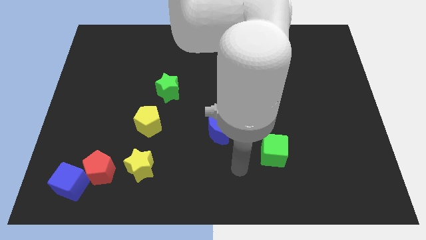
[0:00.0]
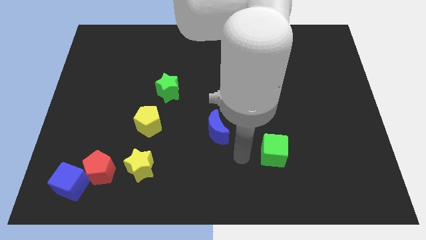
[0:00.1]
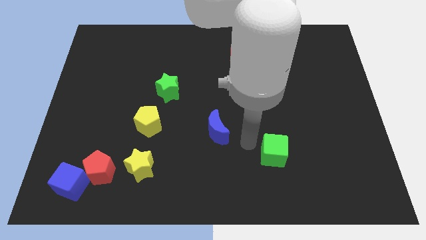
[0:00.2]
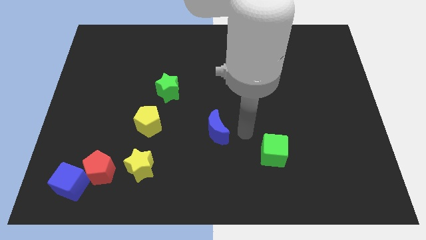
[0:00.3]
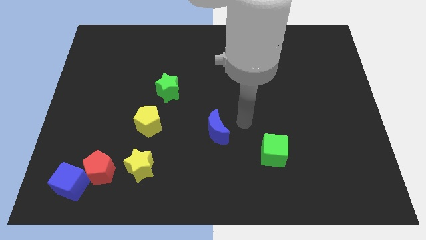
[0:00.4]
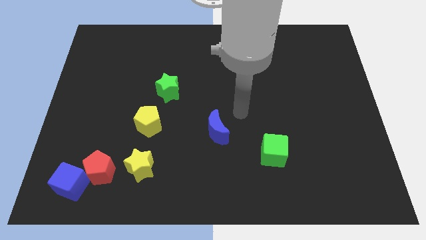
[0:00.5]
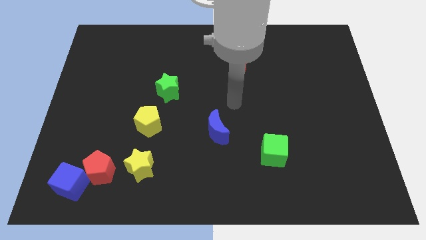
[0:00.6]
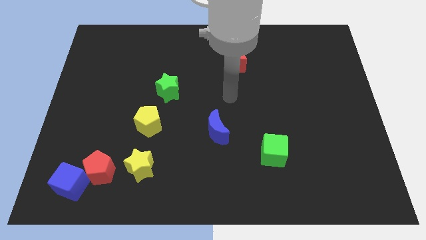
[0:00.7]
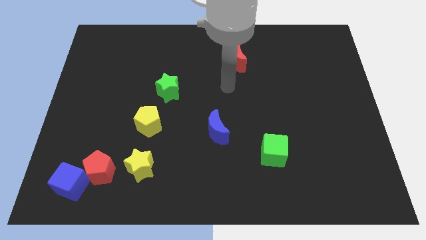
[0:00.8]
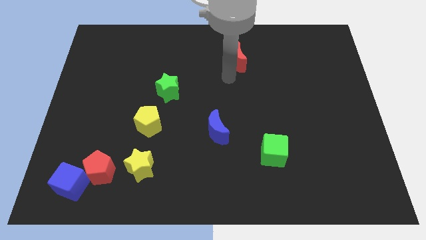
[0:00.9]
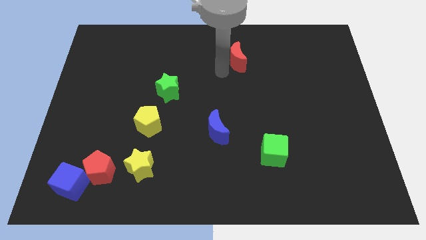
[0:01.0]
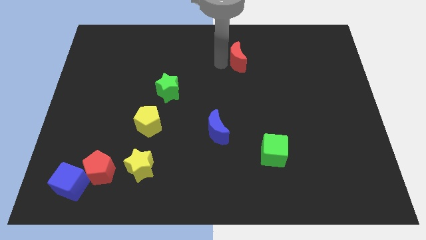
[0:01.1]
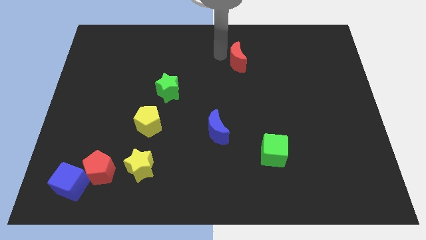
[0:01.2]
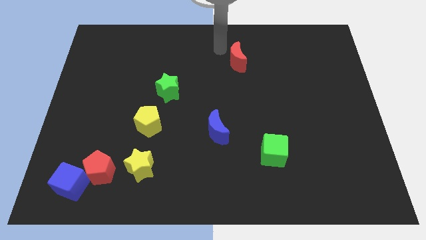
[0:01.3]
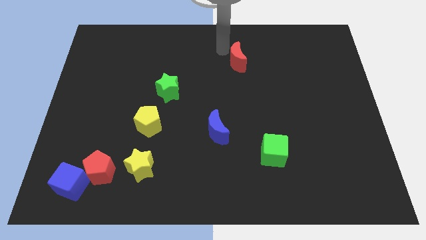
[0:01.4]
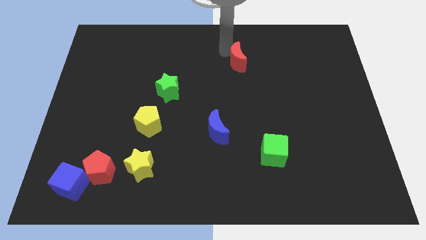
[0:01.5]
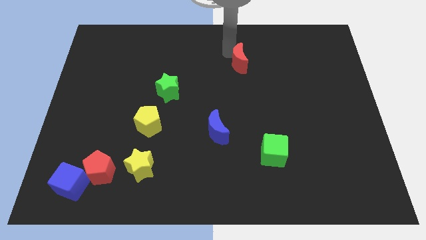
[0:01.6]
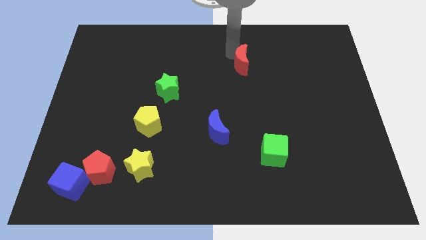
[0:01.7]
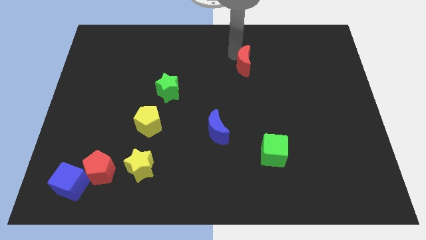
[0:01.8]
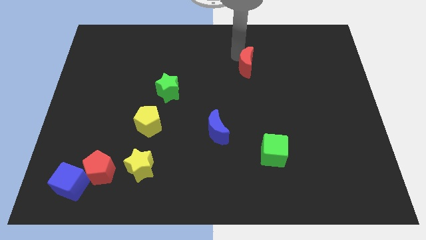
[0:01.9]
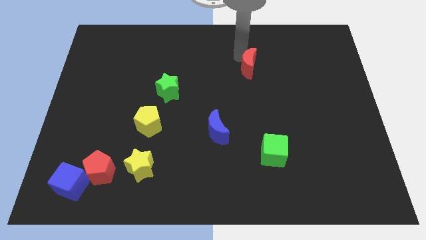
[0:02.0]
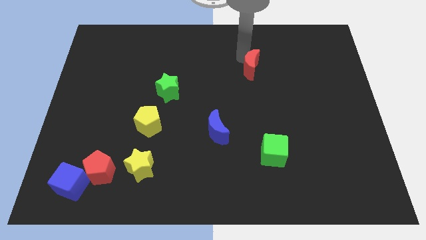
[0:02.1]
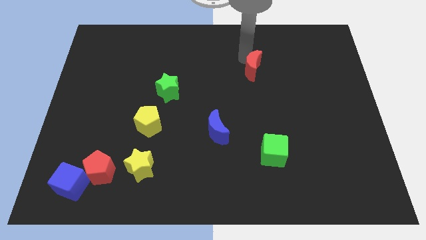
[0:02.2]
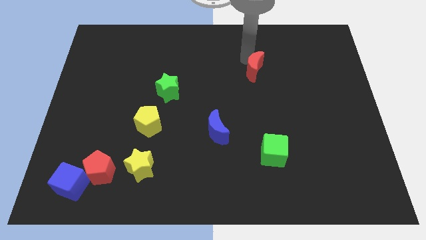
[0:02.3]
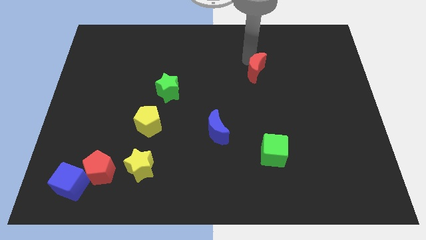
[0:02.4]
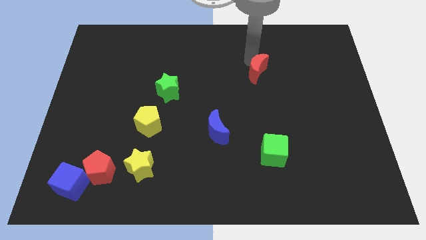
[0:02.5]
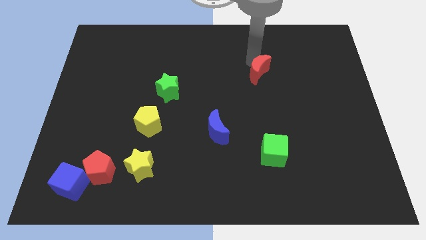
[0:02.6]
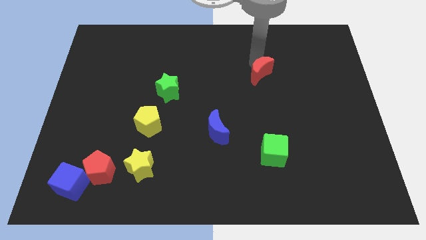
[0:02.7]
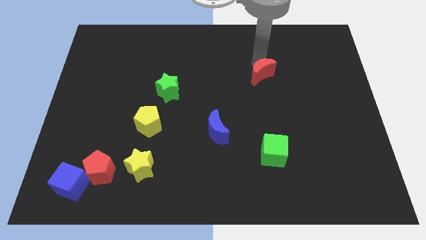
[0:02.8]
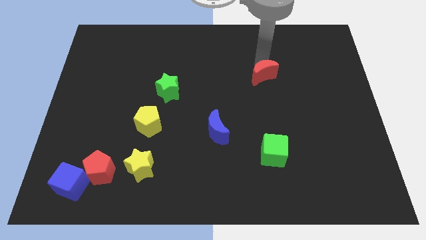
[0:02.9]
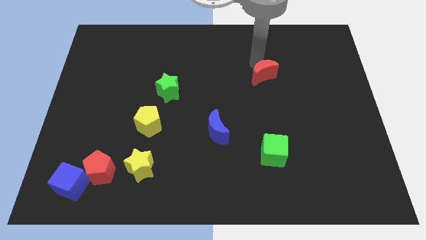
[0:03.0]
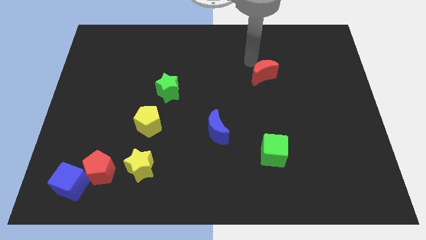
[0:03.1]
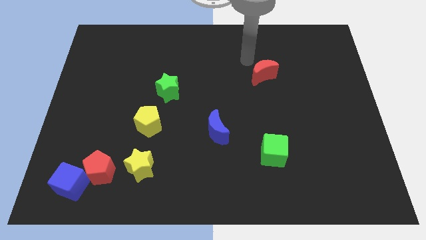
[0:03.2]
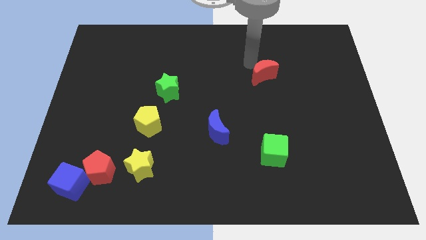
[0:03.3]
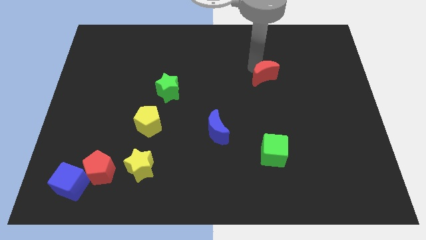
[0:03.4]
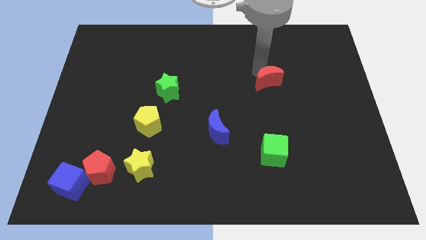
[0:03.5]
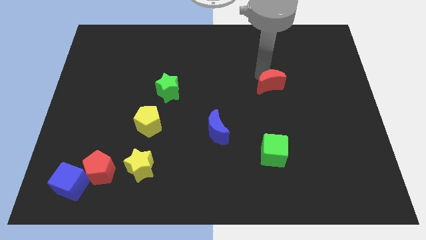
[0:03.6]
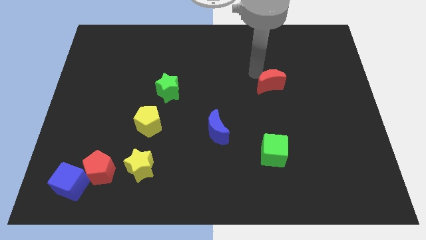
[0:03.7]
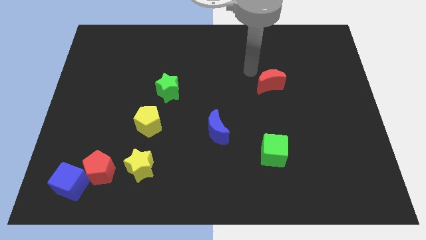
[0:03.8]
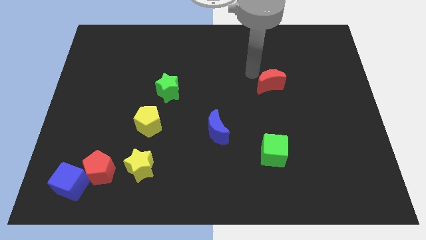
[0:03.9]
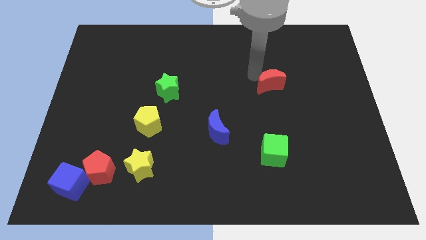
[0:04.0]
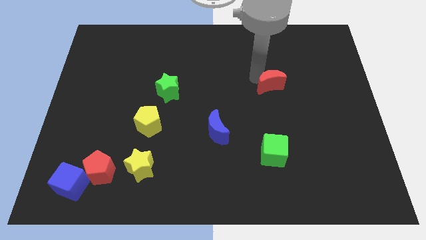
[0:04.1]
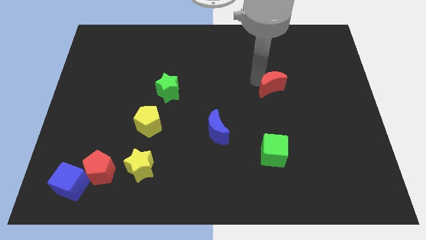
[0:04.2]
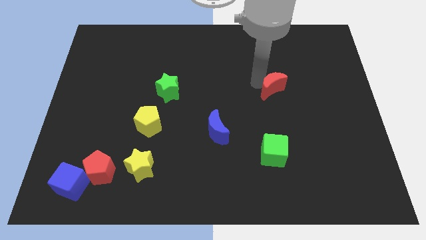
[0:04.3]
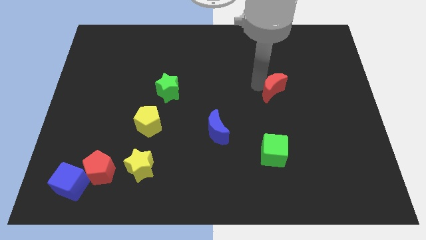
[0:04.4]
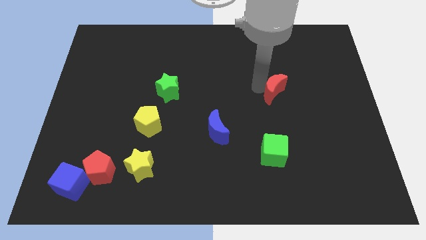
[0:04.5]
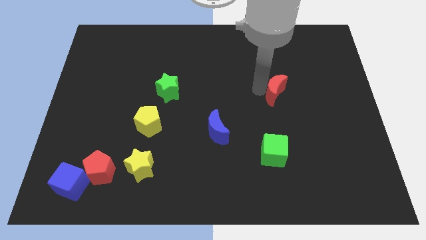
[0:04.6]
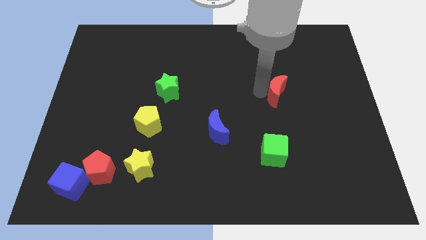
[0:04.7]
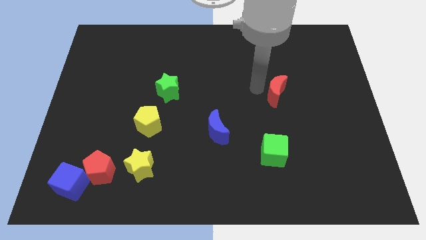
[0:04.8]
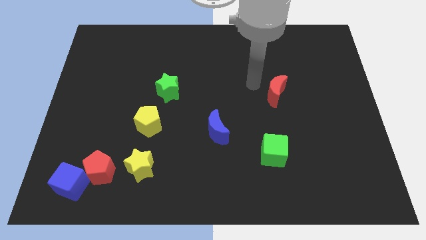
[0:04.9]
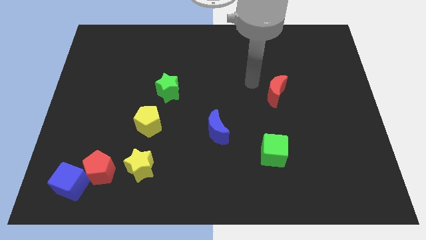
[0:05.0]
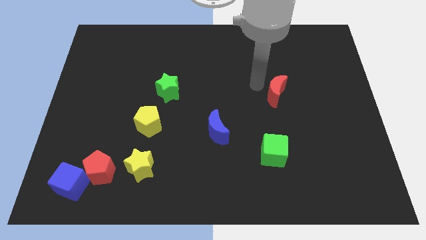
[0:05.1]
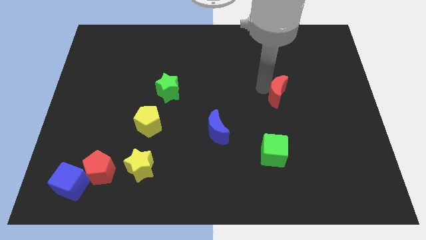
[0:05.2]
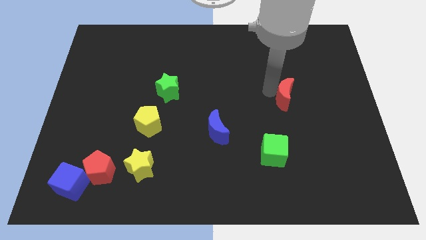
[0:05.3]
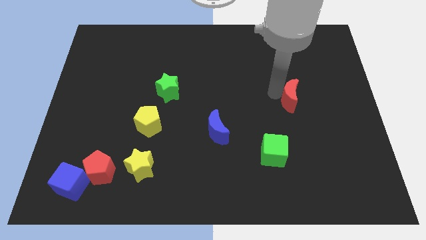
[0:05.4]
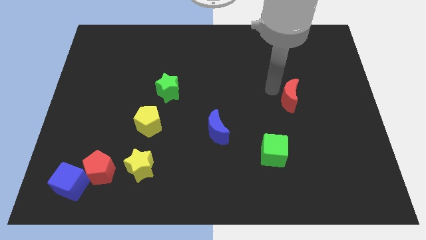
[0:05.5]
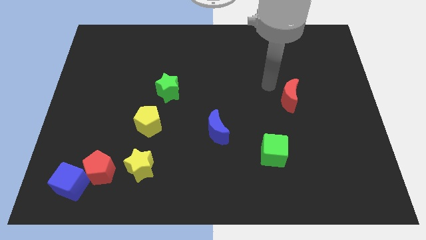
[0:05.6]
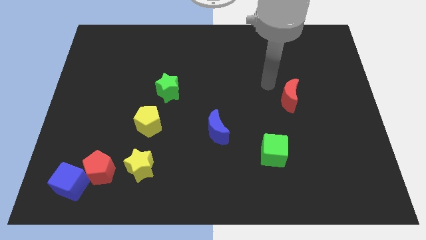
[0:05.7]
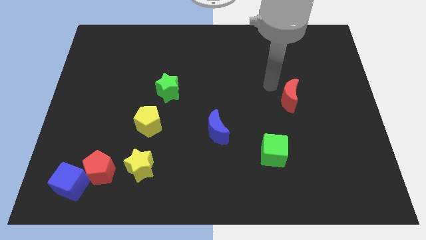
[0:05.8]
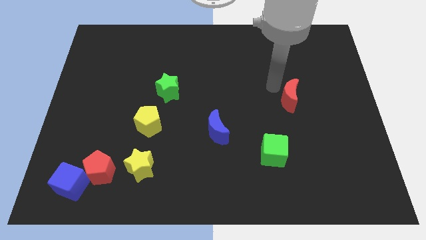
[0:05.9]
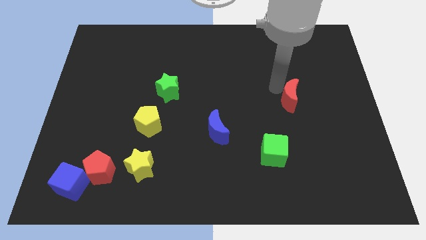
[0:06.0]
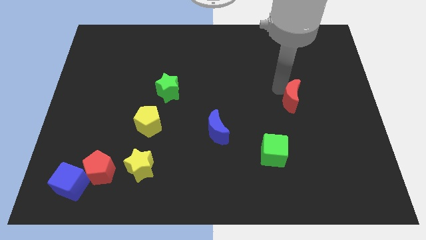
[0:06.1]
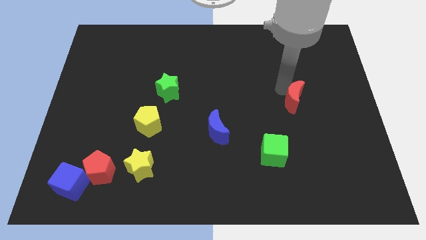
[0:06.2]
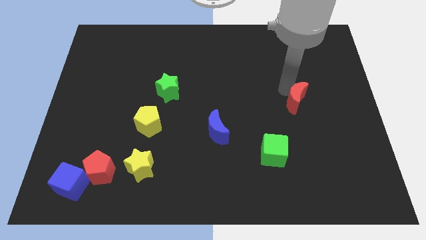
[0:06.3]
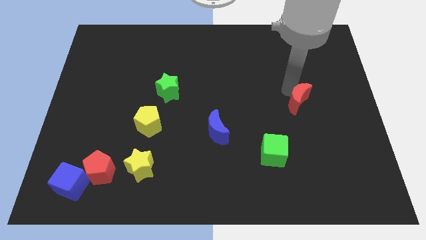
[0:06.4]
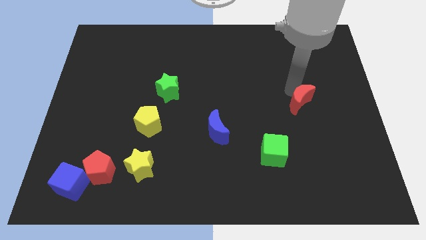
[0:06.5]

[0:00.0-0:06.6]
push the red moon down and to the right diagonally

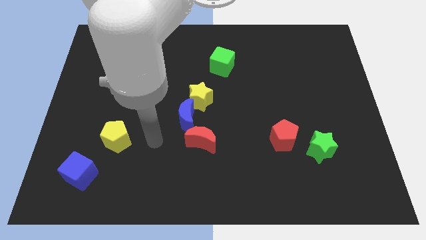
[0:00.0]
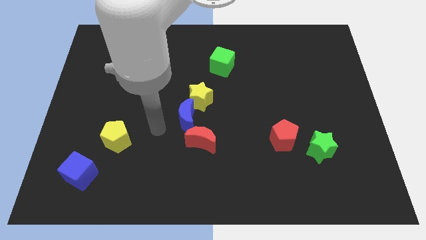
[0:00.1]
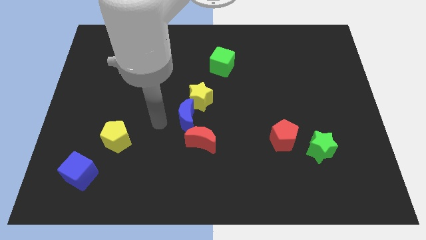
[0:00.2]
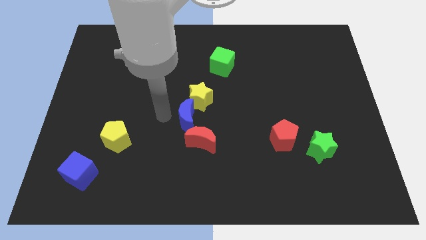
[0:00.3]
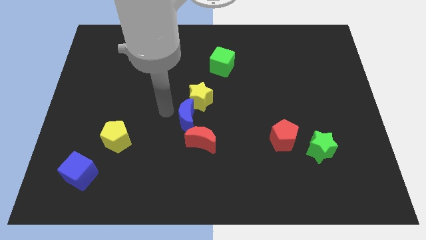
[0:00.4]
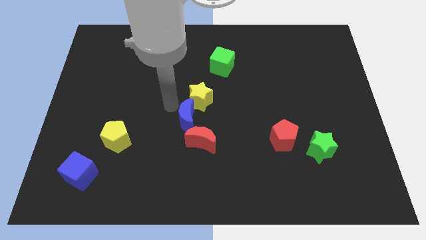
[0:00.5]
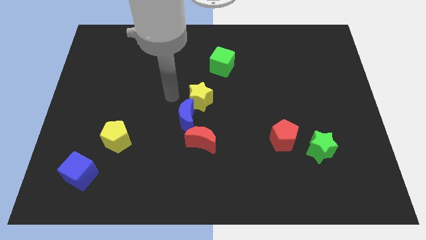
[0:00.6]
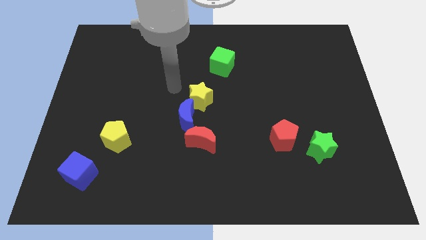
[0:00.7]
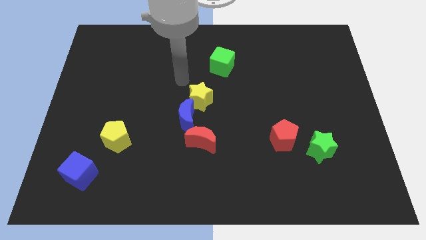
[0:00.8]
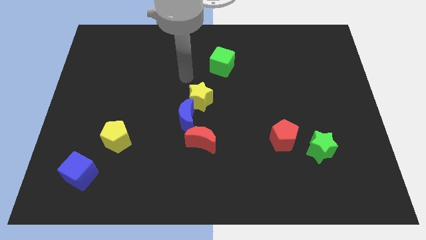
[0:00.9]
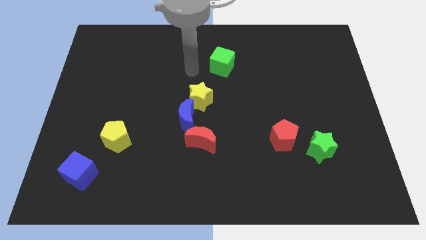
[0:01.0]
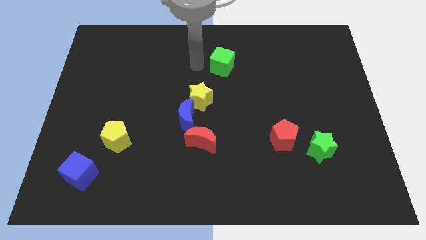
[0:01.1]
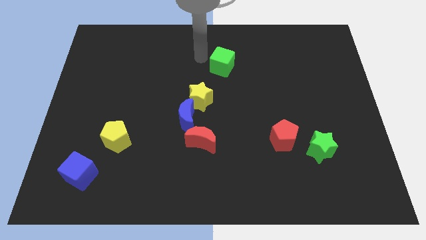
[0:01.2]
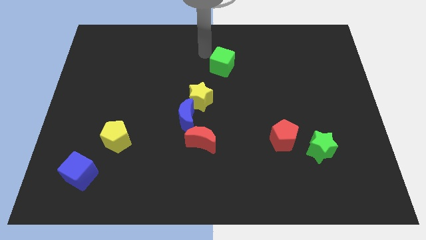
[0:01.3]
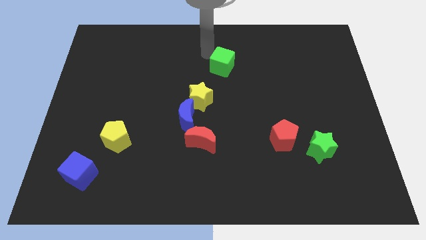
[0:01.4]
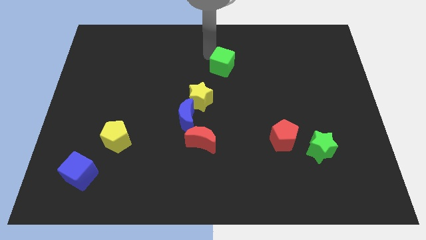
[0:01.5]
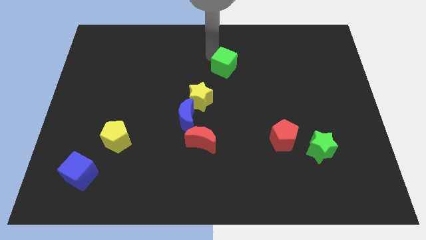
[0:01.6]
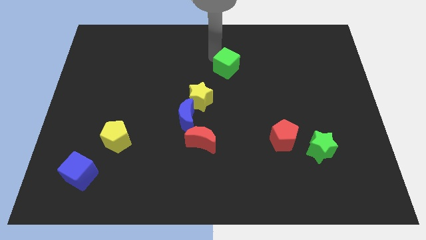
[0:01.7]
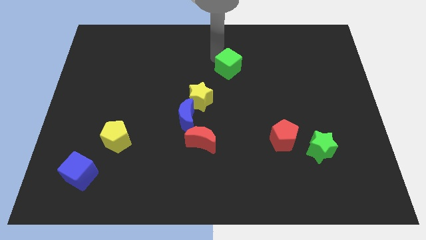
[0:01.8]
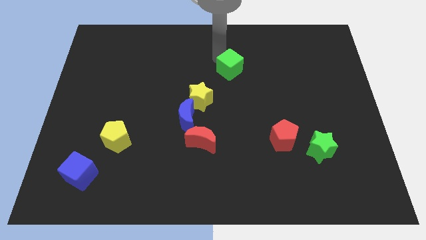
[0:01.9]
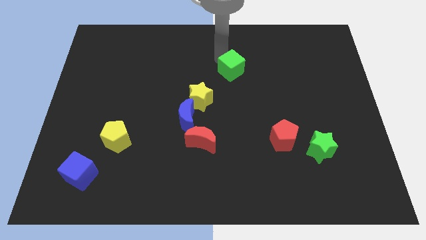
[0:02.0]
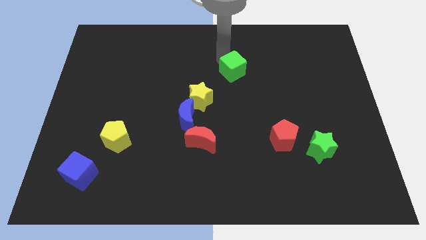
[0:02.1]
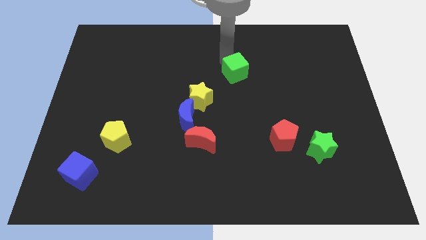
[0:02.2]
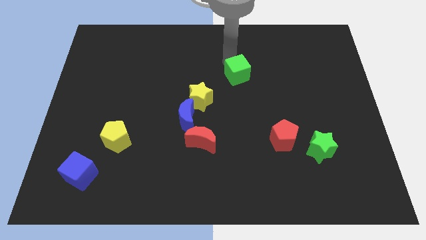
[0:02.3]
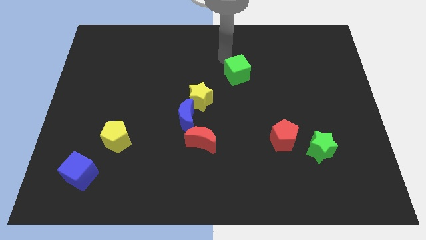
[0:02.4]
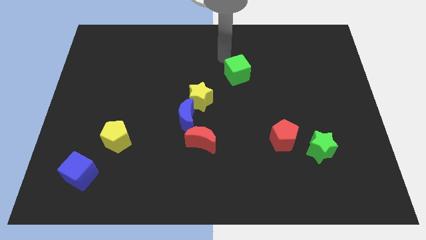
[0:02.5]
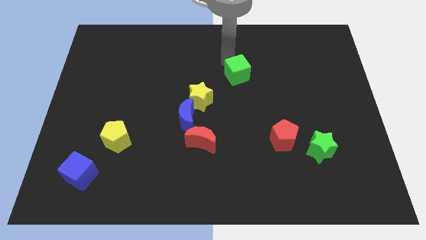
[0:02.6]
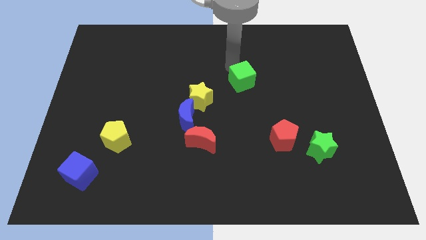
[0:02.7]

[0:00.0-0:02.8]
push the green cube somewhat down and to the right diagonally
